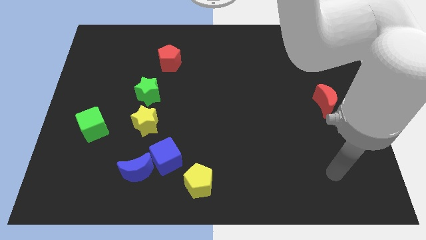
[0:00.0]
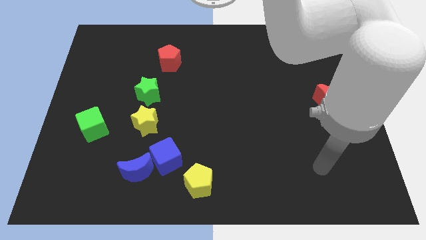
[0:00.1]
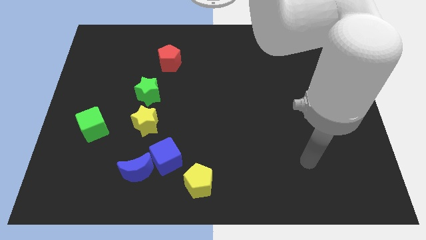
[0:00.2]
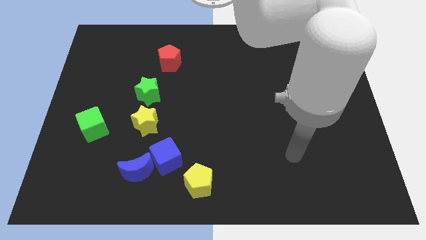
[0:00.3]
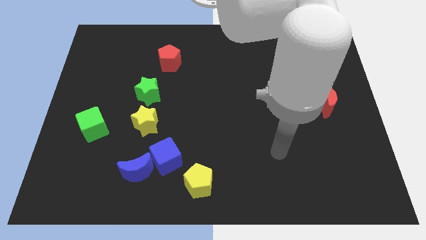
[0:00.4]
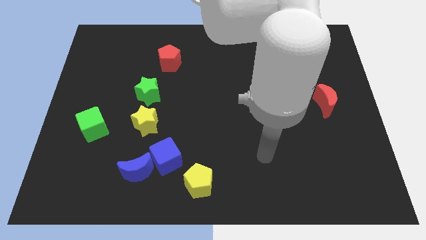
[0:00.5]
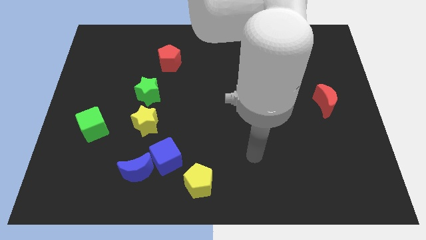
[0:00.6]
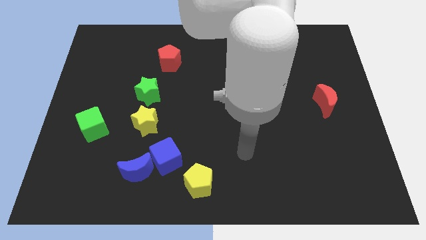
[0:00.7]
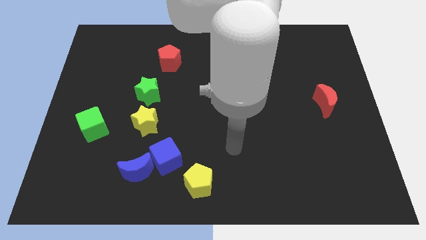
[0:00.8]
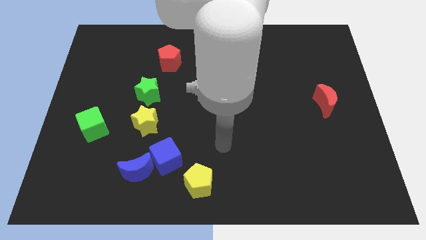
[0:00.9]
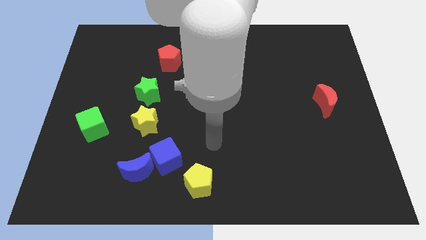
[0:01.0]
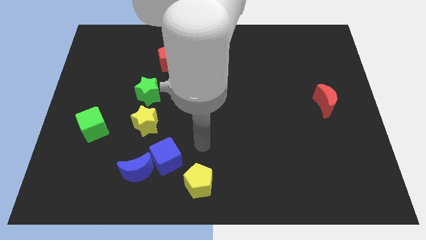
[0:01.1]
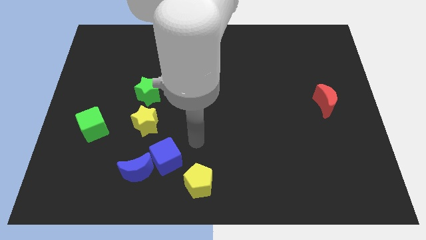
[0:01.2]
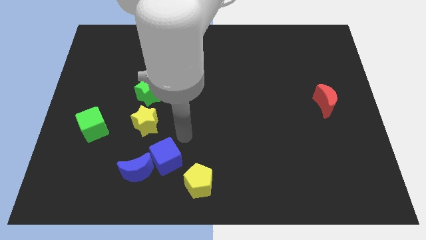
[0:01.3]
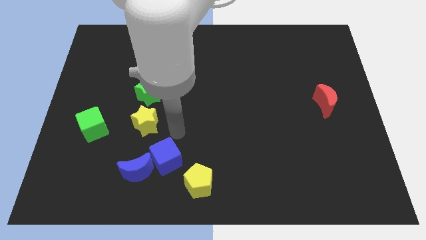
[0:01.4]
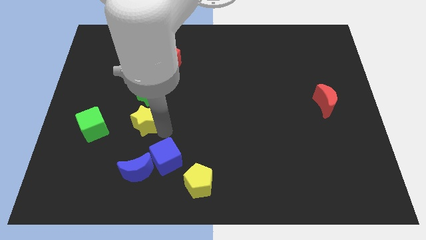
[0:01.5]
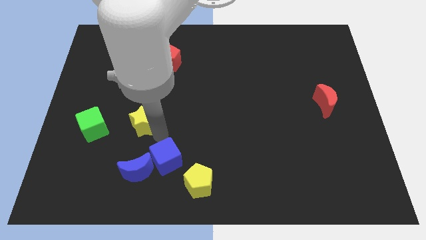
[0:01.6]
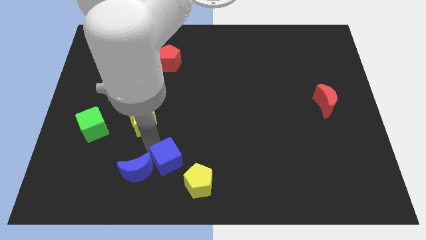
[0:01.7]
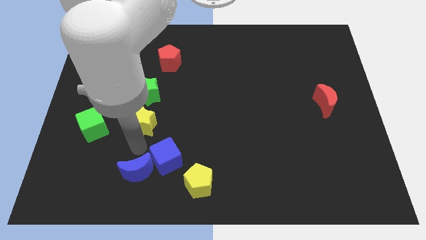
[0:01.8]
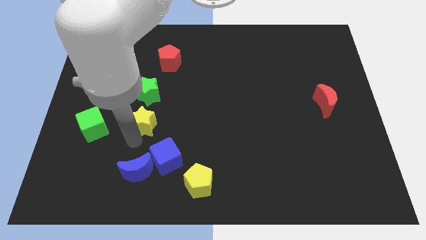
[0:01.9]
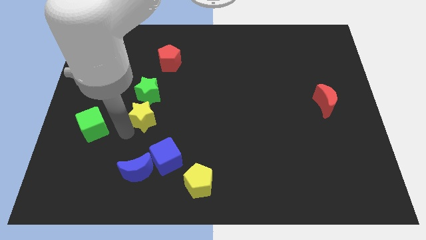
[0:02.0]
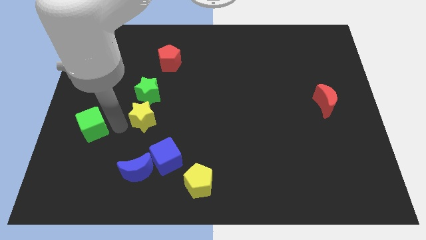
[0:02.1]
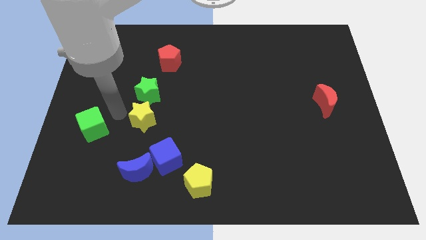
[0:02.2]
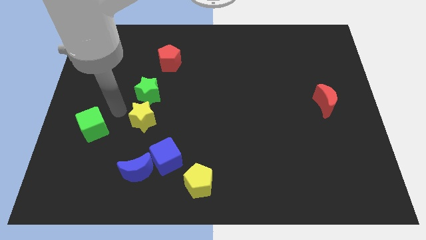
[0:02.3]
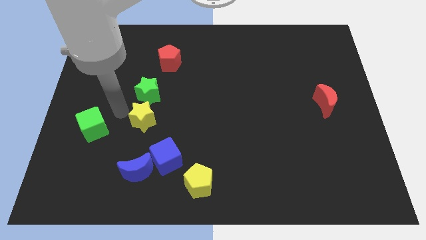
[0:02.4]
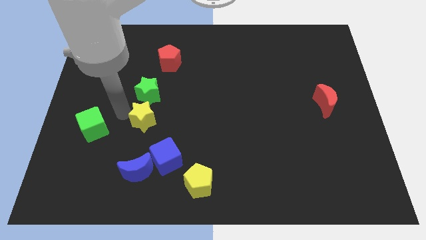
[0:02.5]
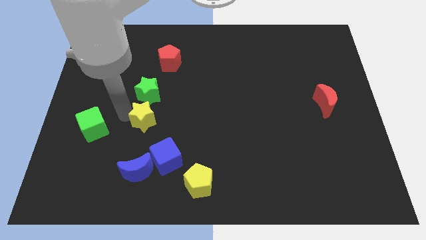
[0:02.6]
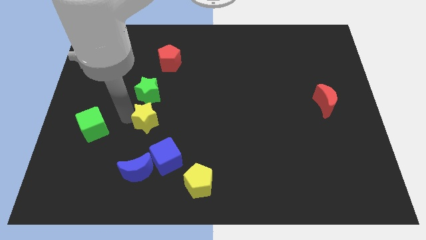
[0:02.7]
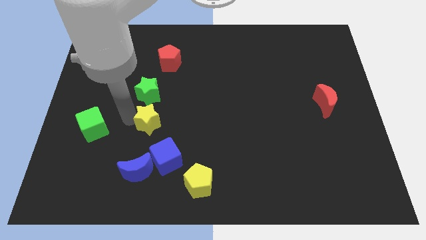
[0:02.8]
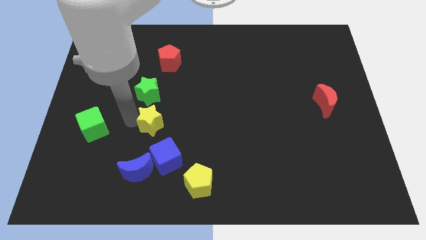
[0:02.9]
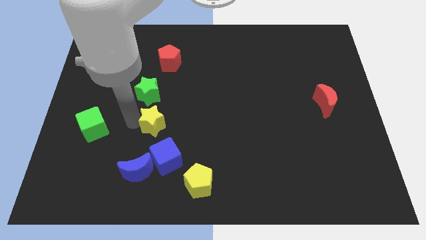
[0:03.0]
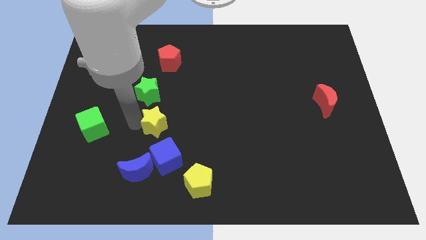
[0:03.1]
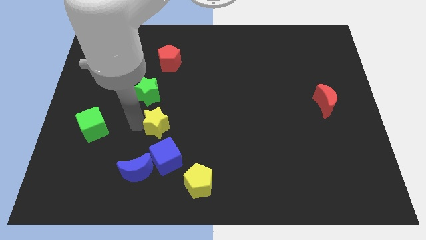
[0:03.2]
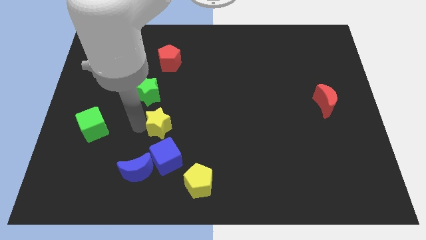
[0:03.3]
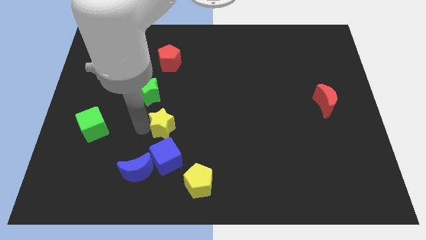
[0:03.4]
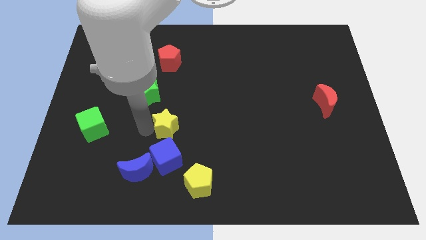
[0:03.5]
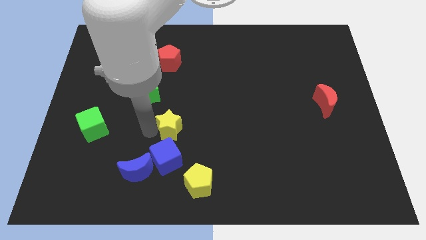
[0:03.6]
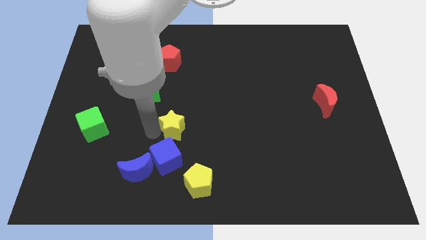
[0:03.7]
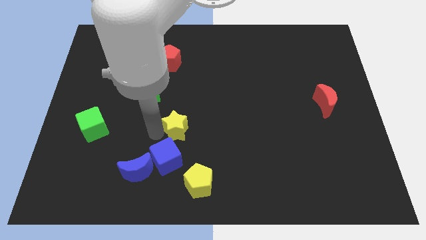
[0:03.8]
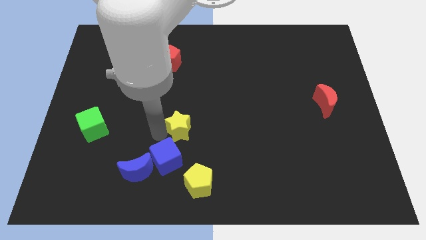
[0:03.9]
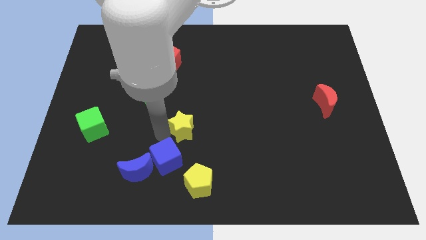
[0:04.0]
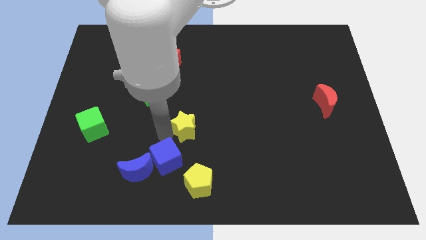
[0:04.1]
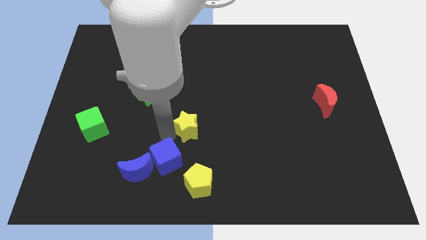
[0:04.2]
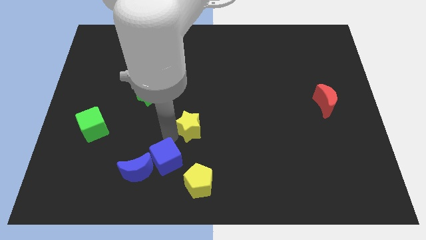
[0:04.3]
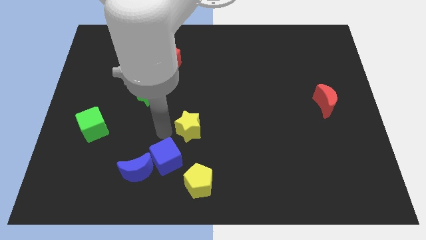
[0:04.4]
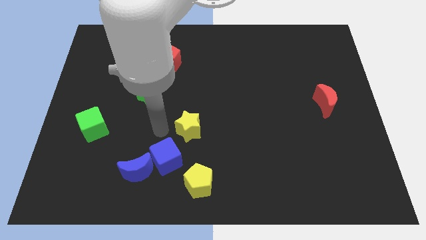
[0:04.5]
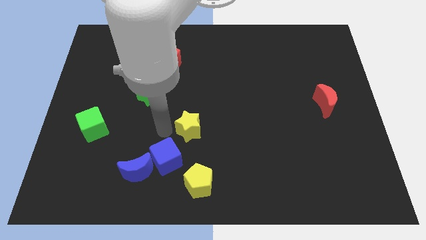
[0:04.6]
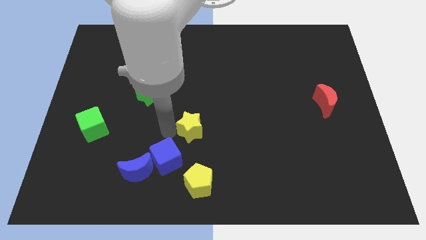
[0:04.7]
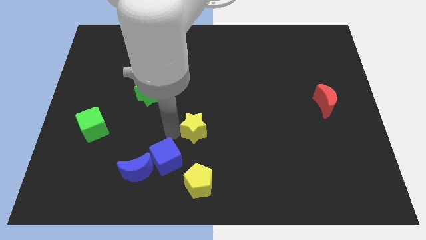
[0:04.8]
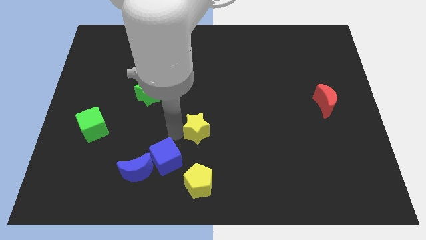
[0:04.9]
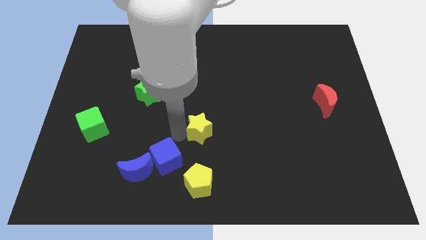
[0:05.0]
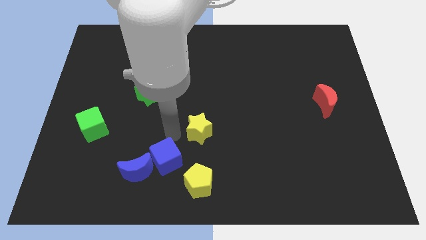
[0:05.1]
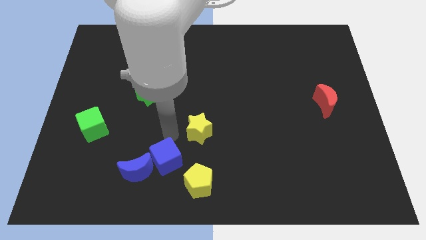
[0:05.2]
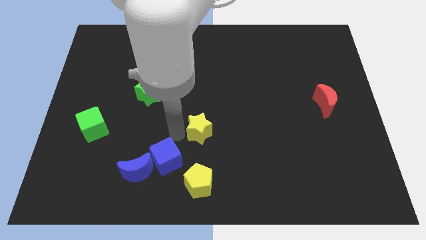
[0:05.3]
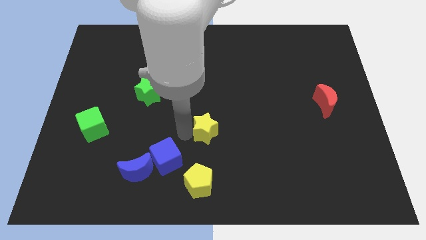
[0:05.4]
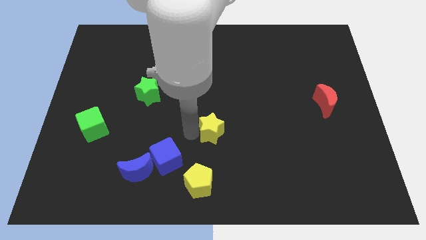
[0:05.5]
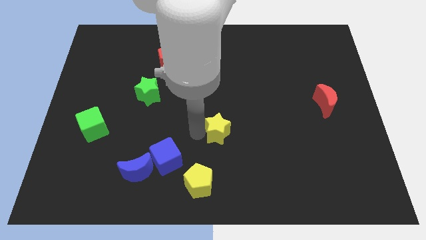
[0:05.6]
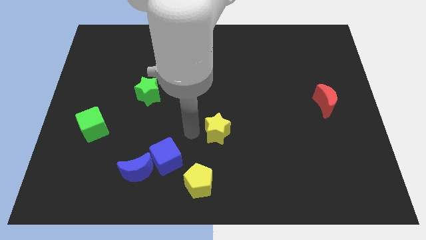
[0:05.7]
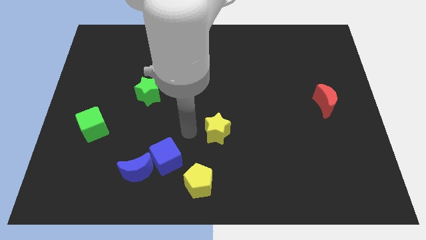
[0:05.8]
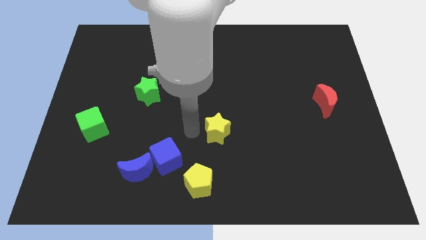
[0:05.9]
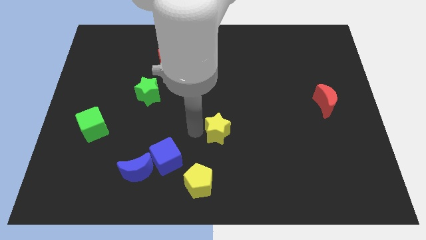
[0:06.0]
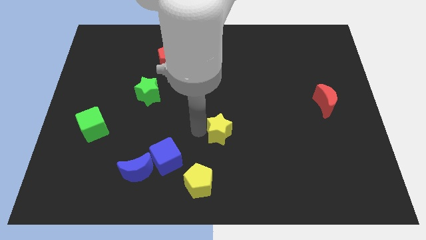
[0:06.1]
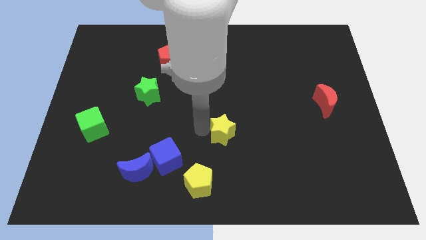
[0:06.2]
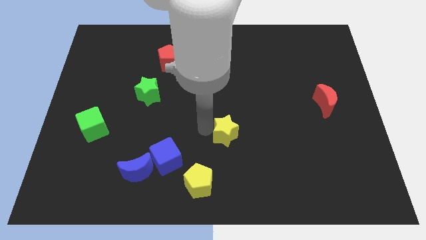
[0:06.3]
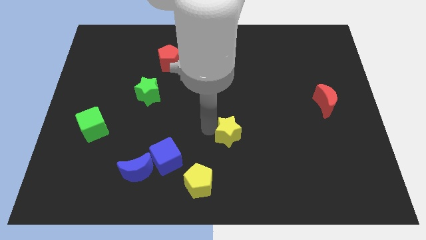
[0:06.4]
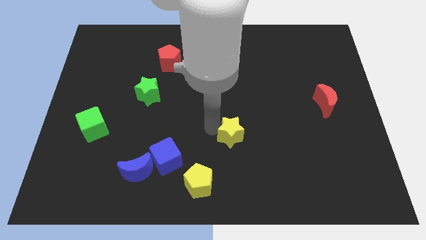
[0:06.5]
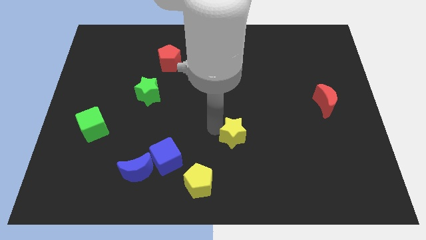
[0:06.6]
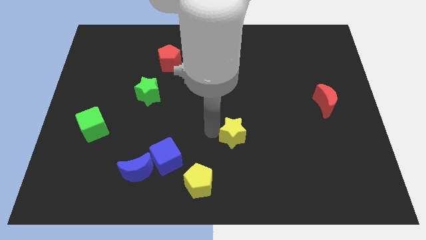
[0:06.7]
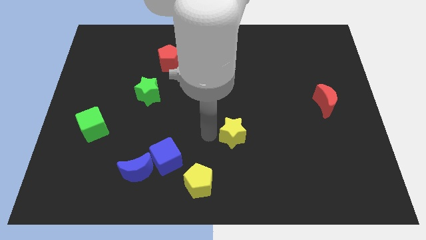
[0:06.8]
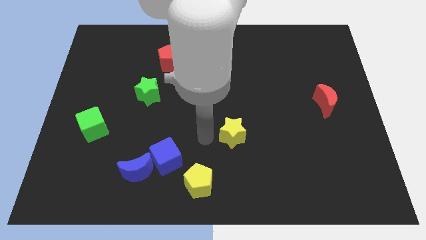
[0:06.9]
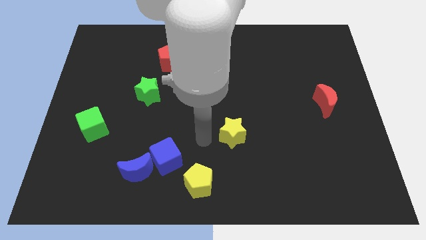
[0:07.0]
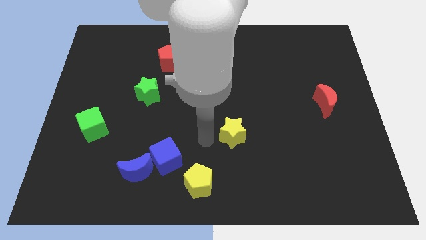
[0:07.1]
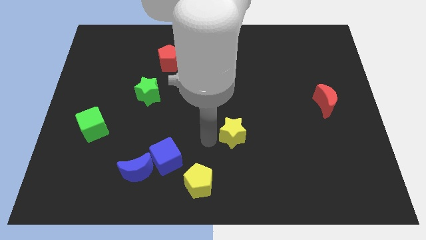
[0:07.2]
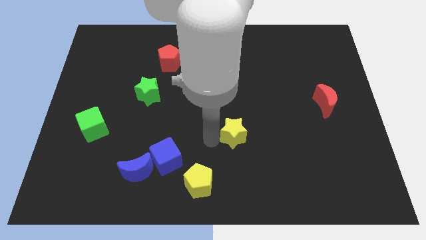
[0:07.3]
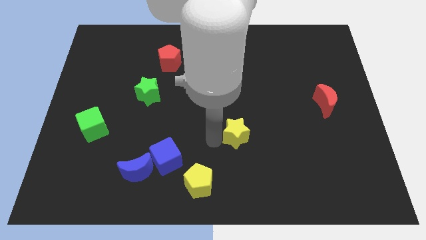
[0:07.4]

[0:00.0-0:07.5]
move the yellow star to the right
